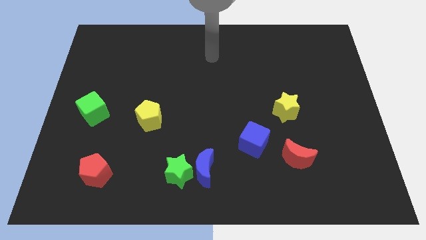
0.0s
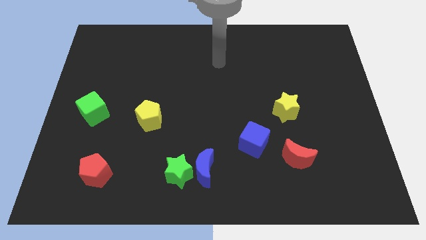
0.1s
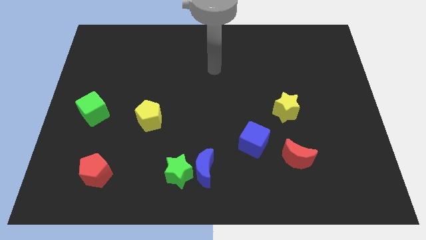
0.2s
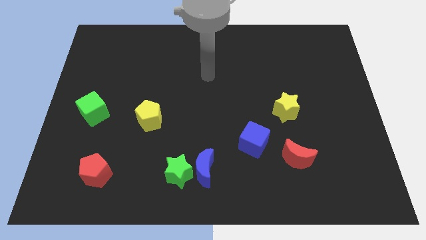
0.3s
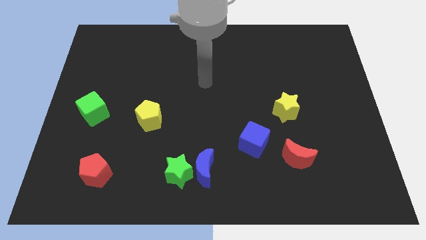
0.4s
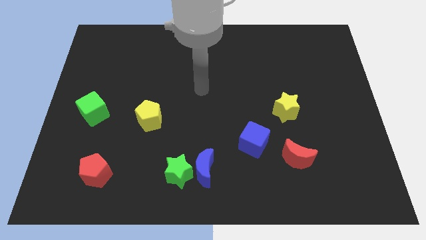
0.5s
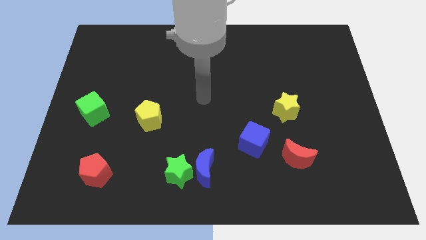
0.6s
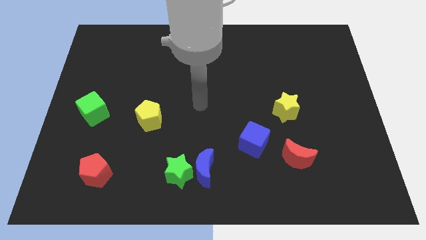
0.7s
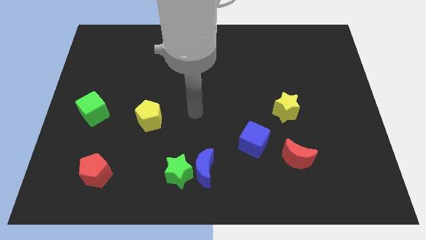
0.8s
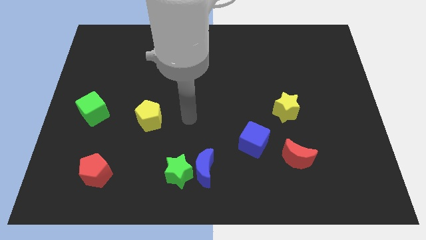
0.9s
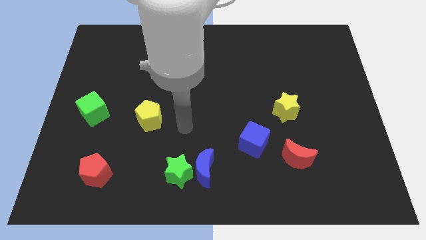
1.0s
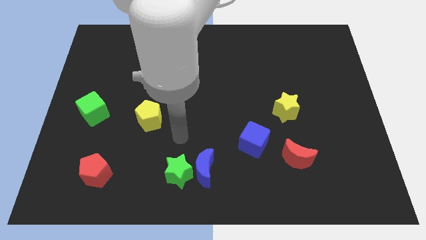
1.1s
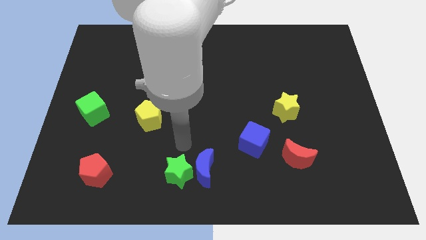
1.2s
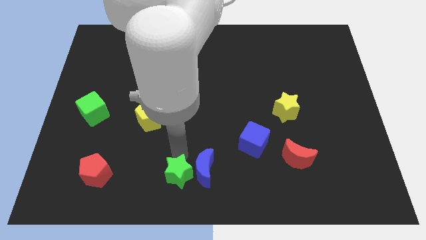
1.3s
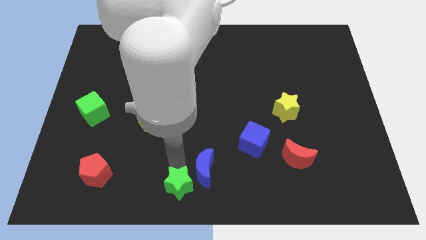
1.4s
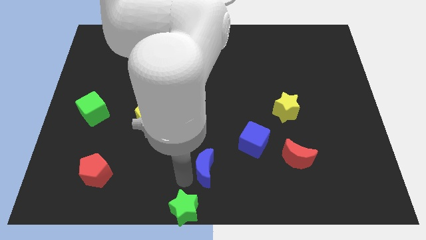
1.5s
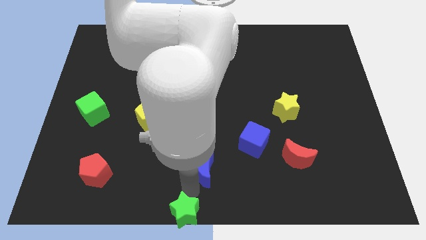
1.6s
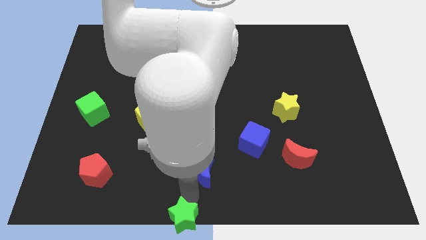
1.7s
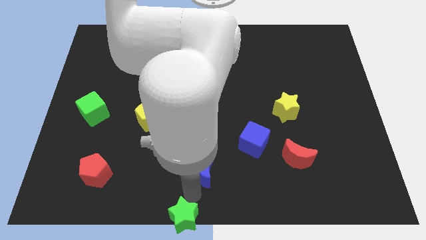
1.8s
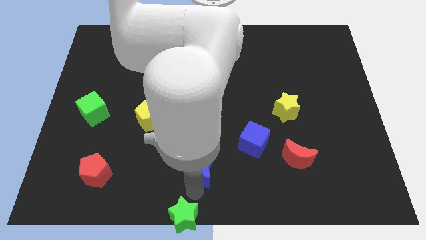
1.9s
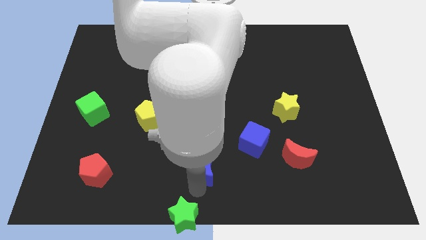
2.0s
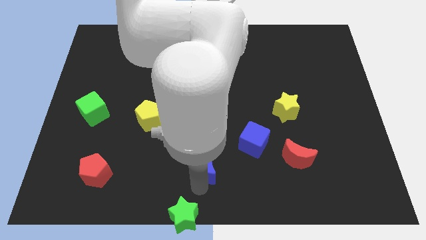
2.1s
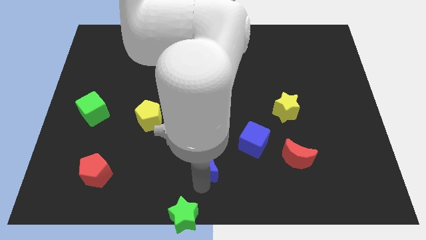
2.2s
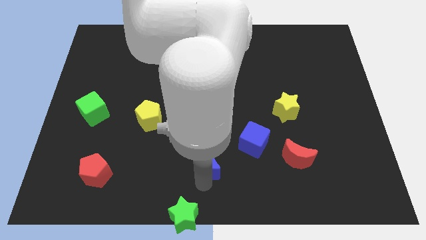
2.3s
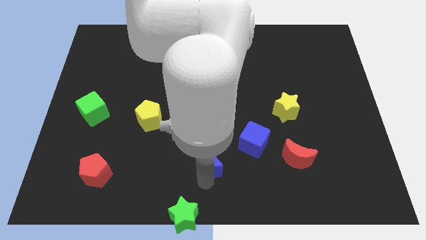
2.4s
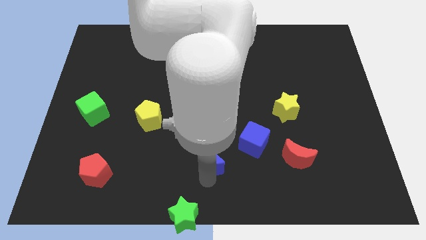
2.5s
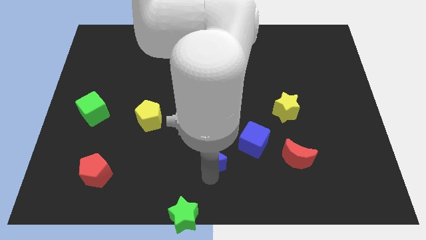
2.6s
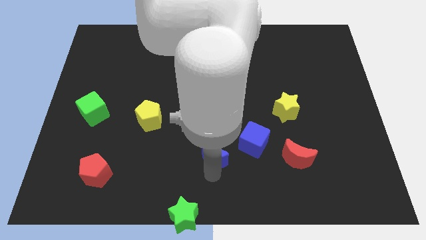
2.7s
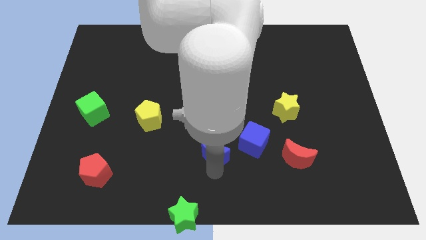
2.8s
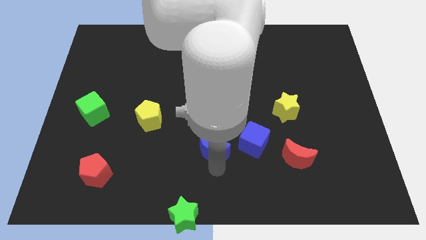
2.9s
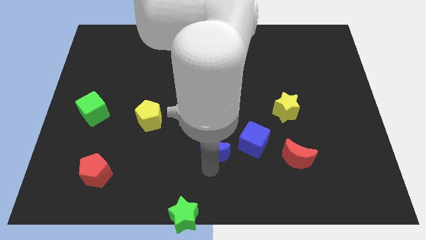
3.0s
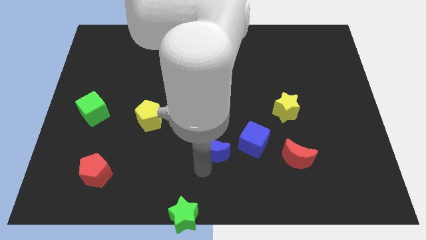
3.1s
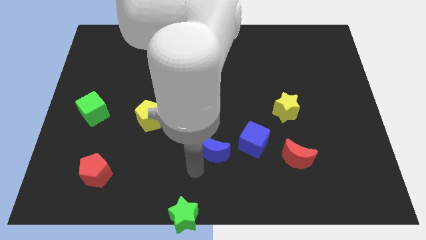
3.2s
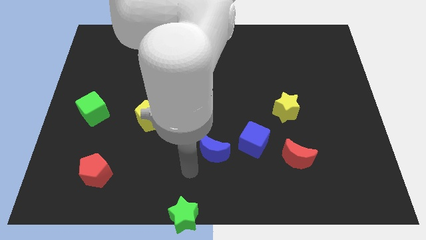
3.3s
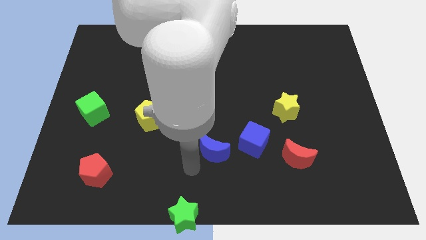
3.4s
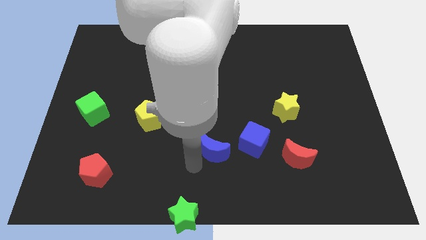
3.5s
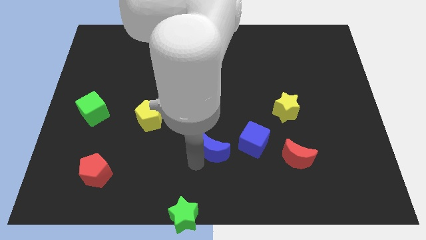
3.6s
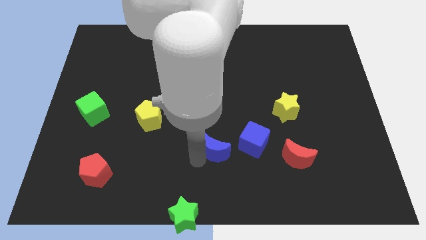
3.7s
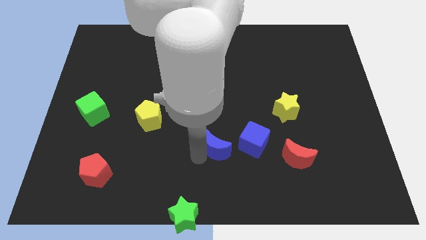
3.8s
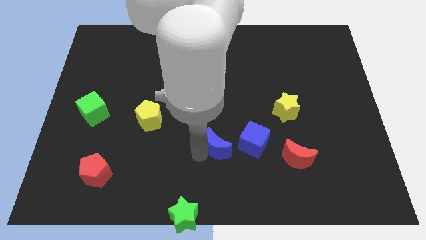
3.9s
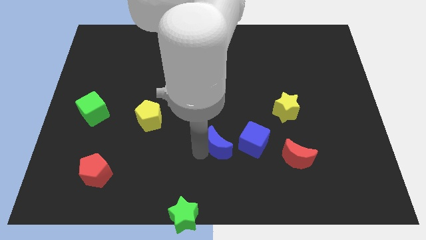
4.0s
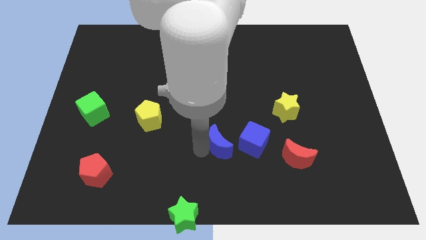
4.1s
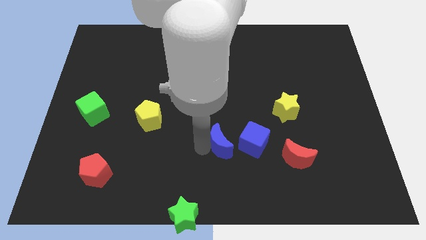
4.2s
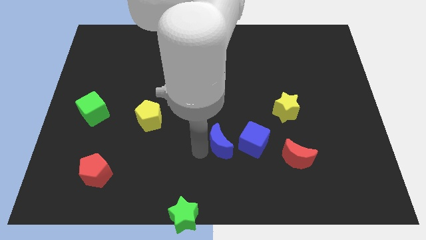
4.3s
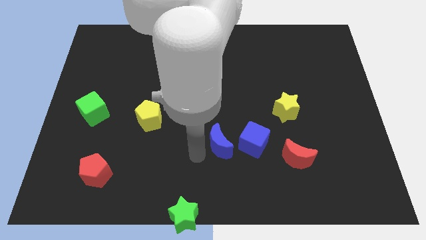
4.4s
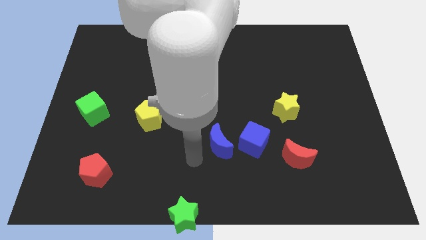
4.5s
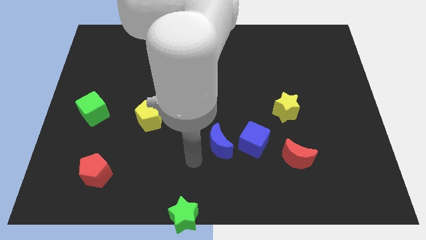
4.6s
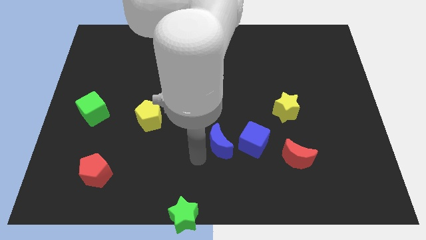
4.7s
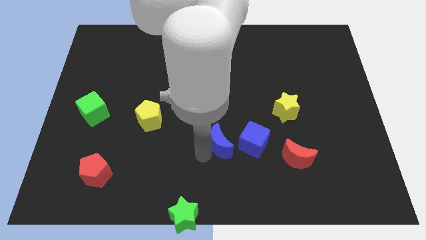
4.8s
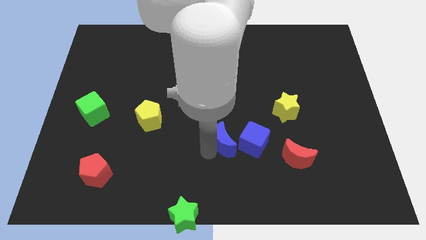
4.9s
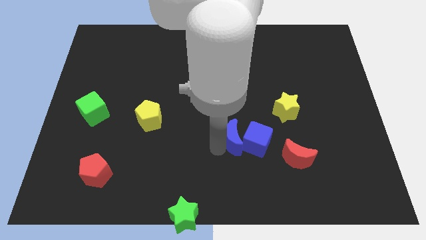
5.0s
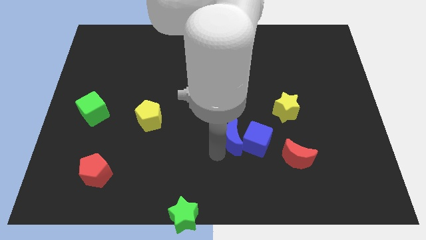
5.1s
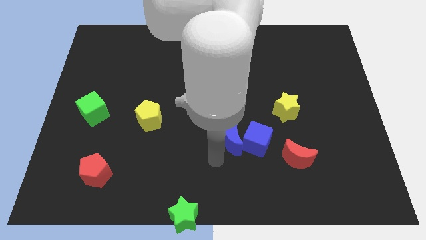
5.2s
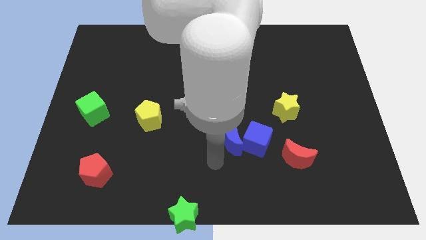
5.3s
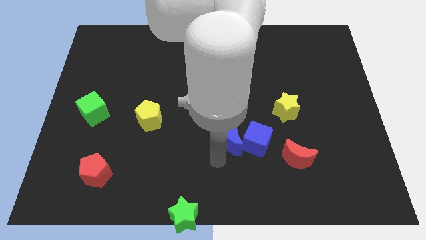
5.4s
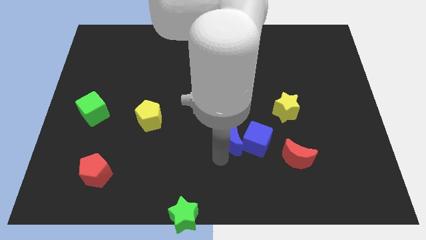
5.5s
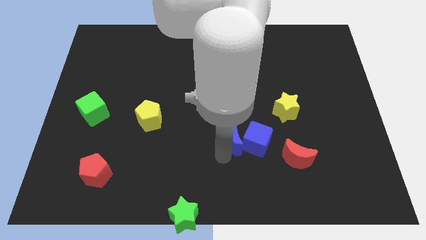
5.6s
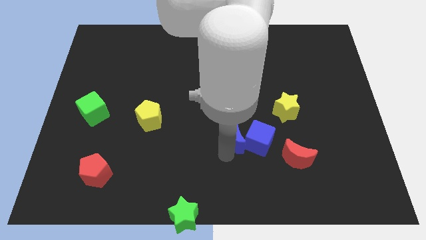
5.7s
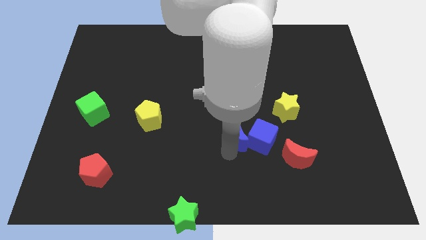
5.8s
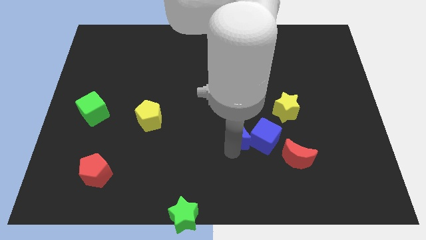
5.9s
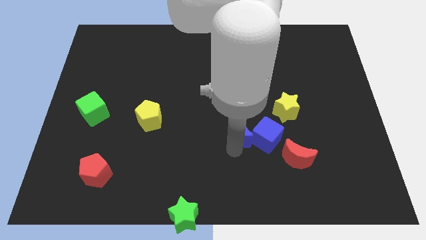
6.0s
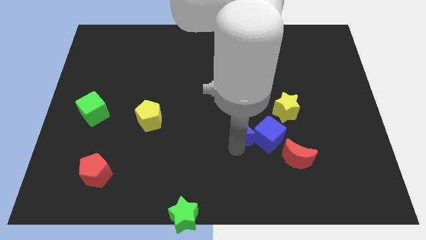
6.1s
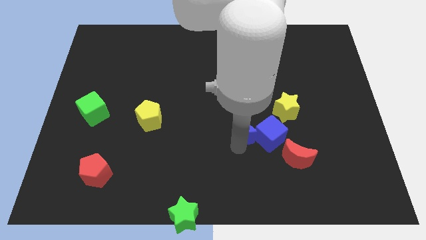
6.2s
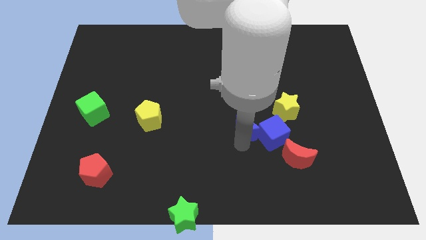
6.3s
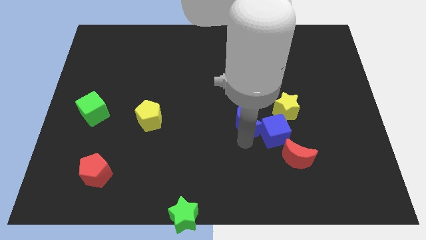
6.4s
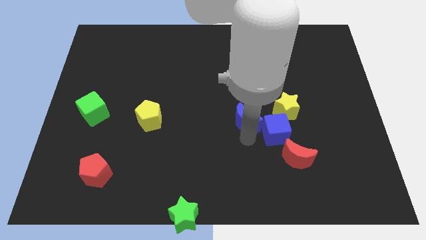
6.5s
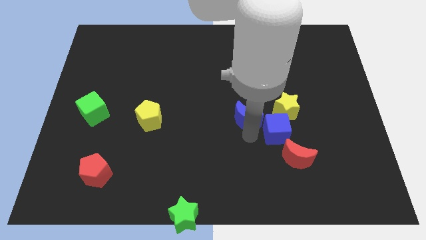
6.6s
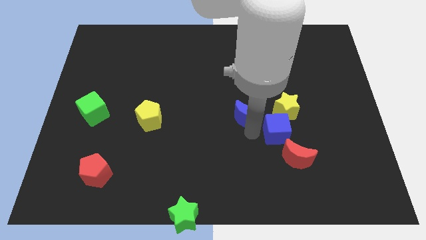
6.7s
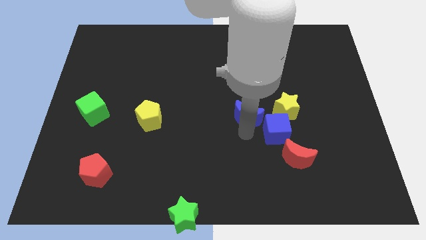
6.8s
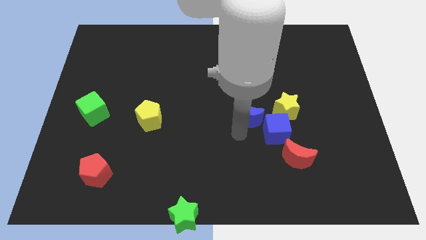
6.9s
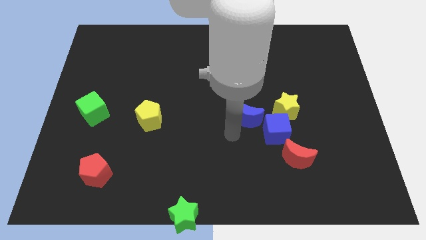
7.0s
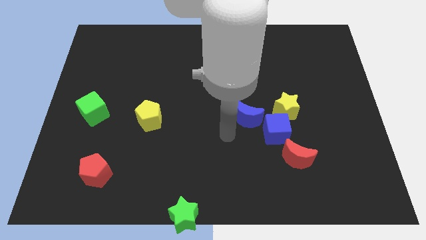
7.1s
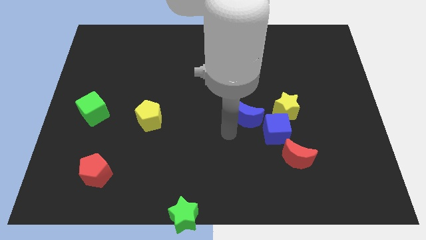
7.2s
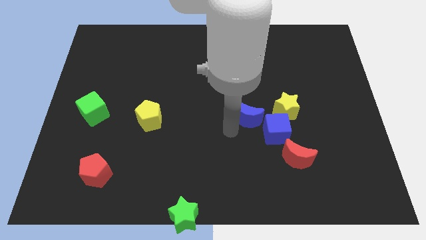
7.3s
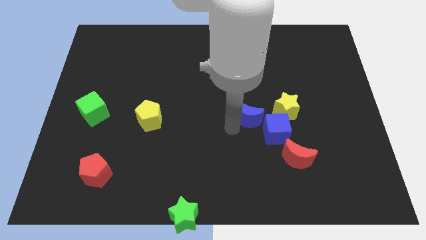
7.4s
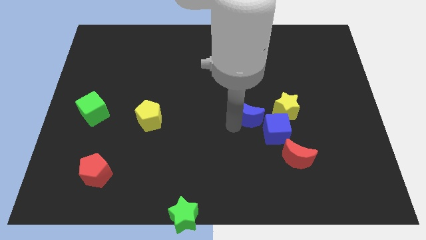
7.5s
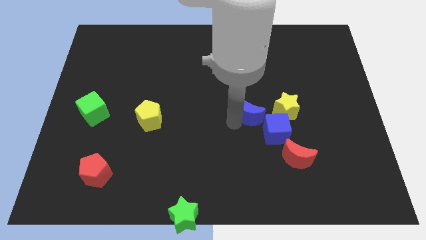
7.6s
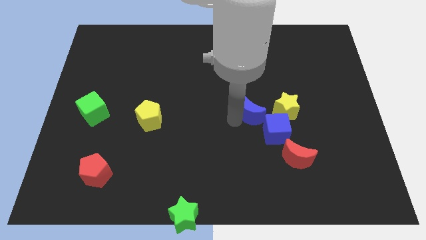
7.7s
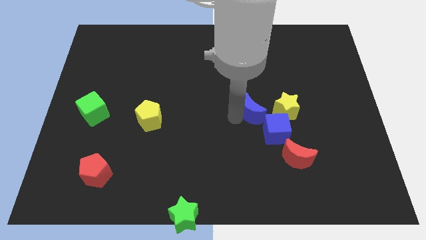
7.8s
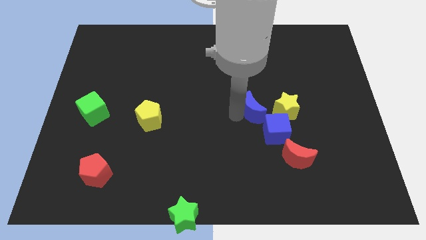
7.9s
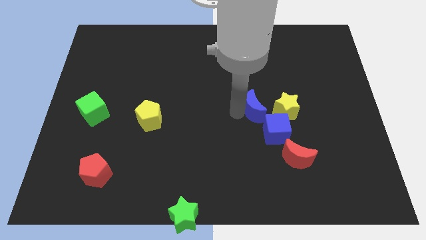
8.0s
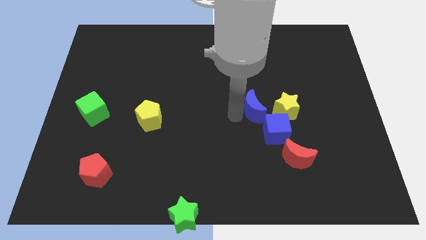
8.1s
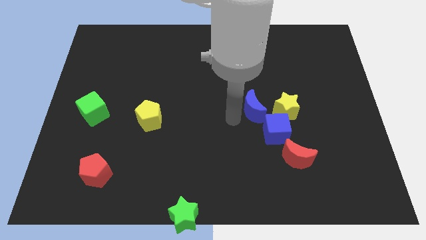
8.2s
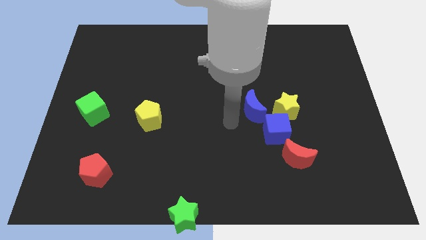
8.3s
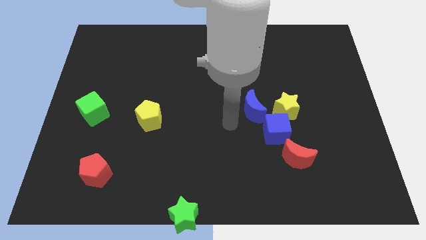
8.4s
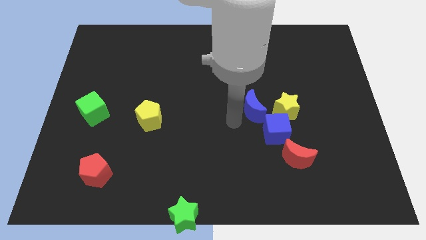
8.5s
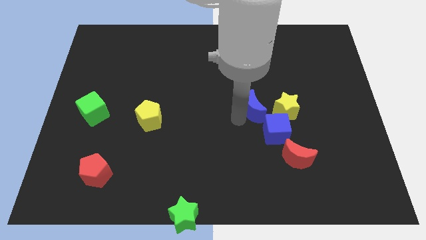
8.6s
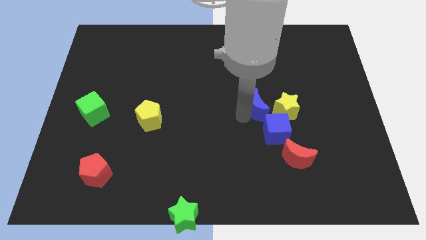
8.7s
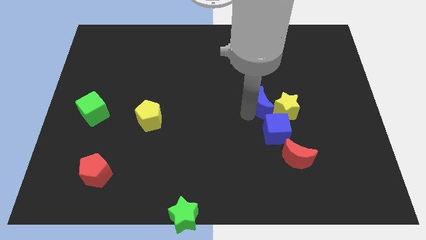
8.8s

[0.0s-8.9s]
slide the blue moon upwards and right
